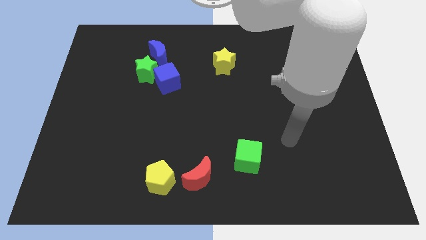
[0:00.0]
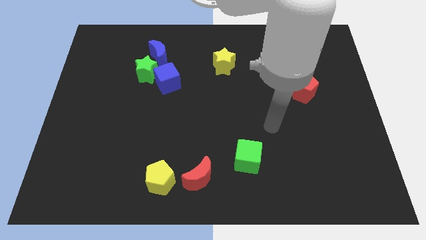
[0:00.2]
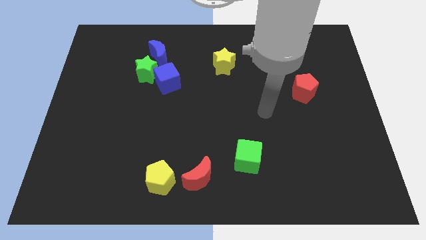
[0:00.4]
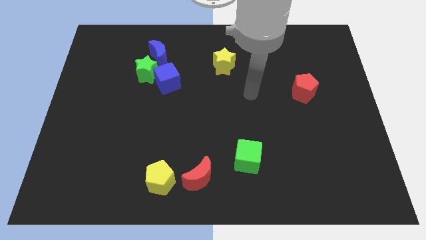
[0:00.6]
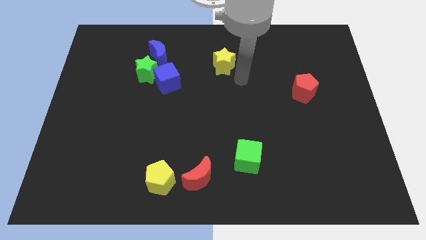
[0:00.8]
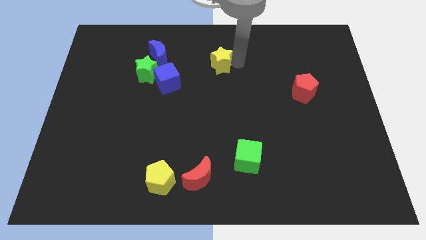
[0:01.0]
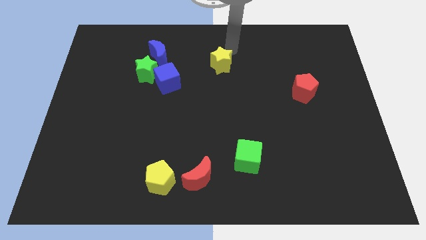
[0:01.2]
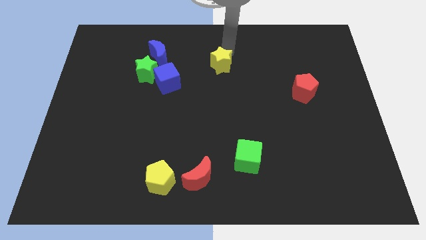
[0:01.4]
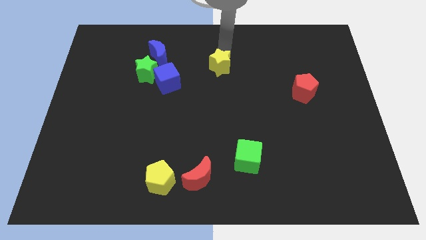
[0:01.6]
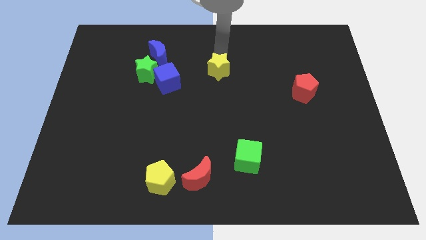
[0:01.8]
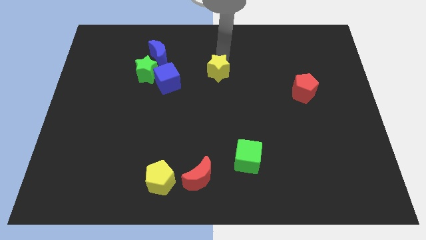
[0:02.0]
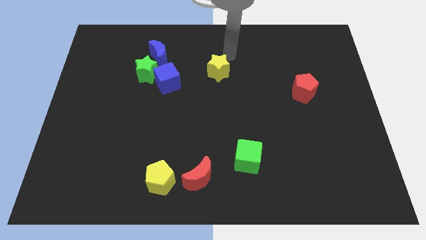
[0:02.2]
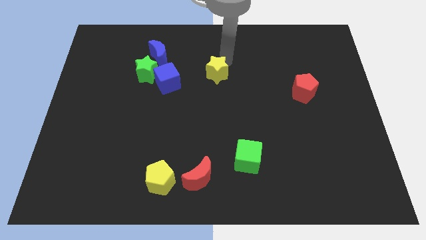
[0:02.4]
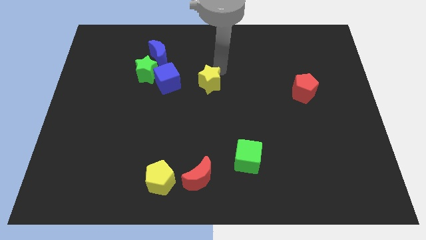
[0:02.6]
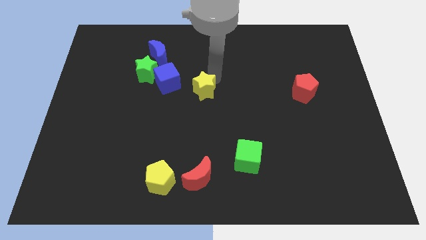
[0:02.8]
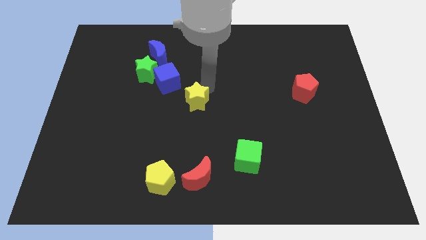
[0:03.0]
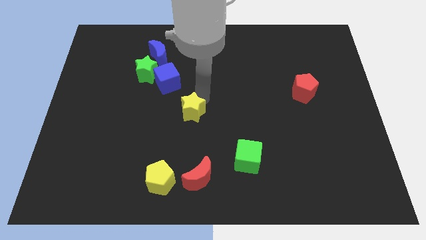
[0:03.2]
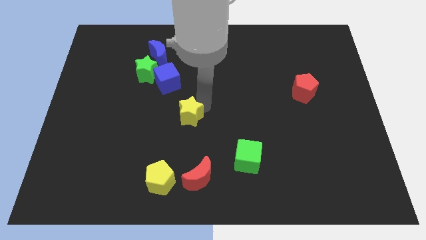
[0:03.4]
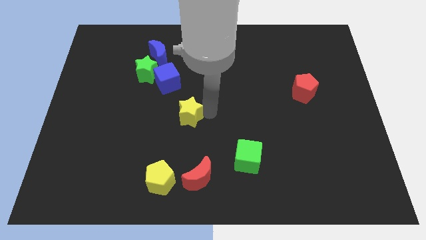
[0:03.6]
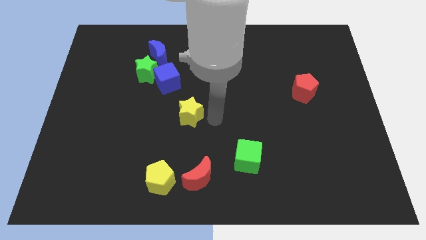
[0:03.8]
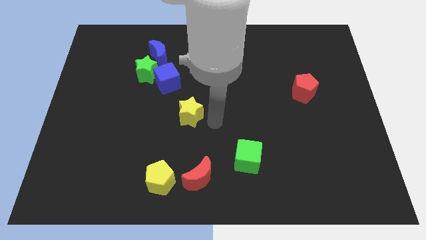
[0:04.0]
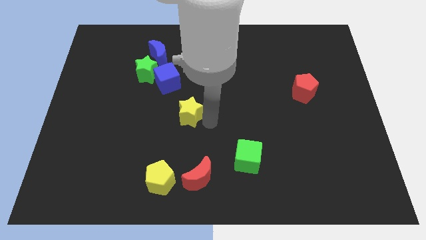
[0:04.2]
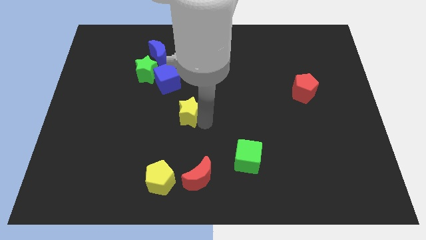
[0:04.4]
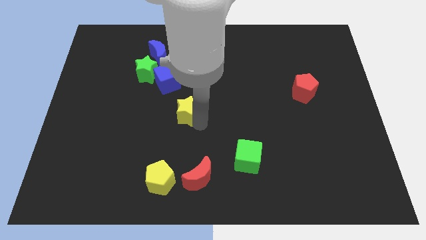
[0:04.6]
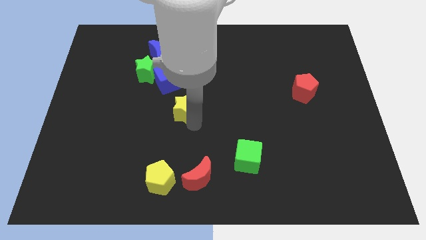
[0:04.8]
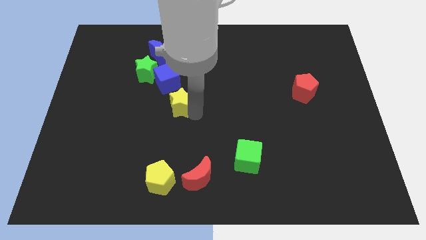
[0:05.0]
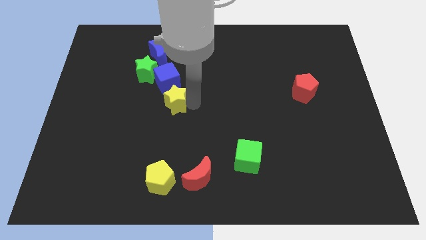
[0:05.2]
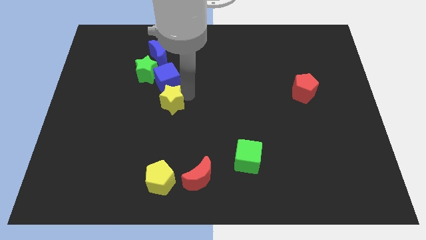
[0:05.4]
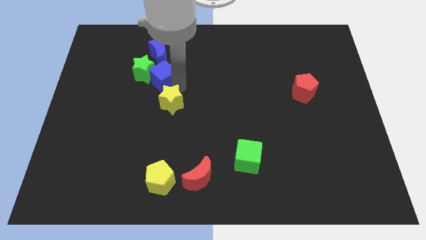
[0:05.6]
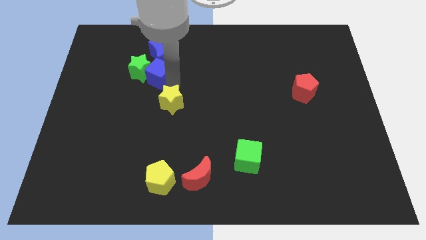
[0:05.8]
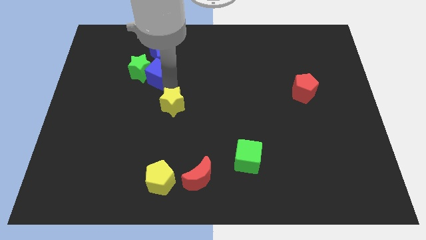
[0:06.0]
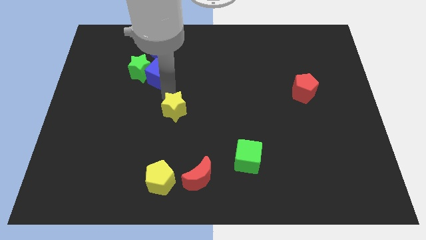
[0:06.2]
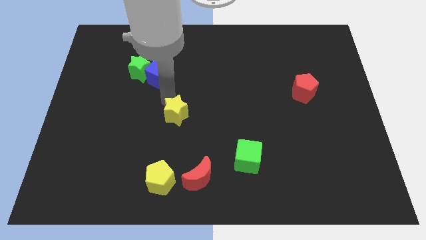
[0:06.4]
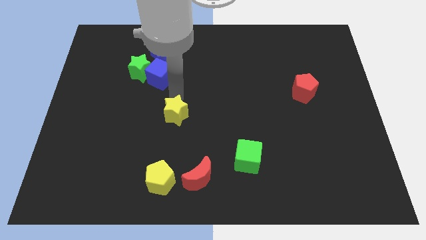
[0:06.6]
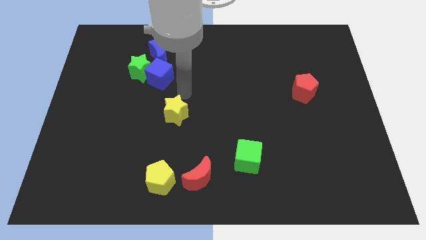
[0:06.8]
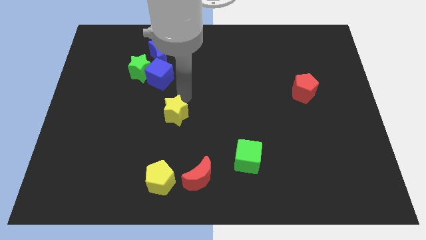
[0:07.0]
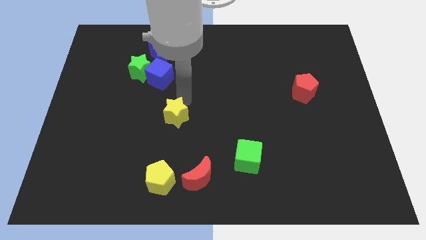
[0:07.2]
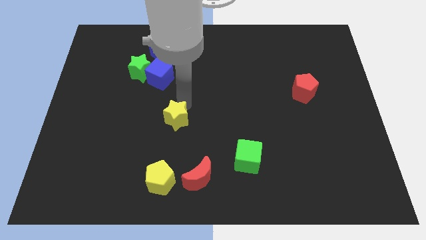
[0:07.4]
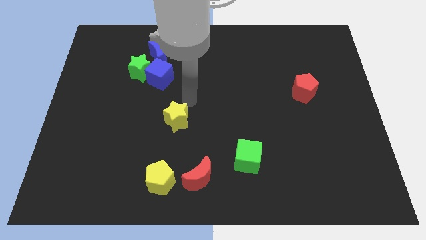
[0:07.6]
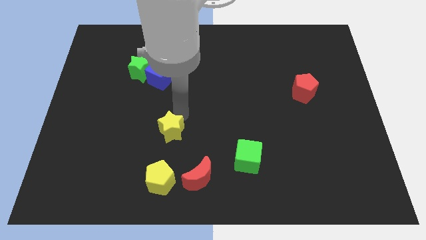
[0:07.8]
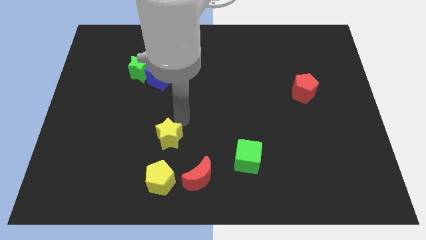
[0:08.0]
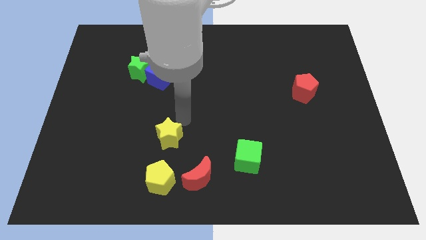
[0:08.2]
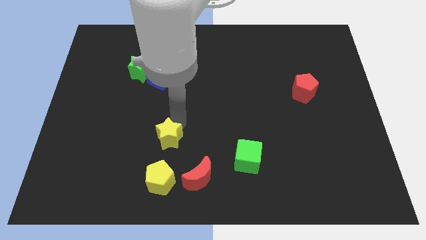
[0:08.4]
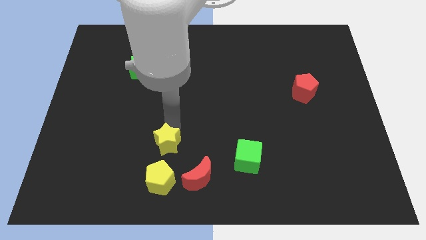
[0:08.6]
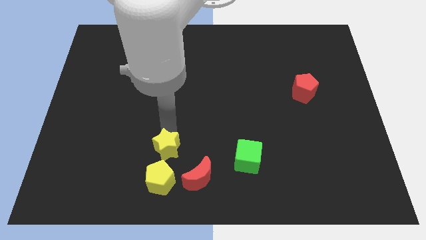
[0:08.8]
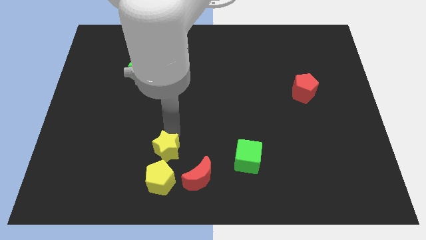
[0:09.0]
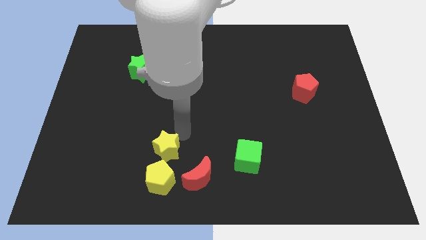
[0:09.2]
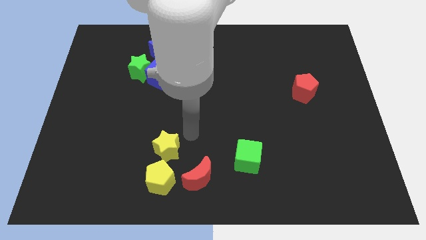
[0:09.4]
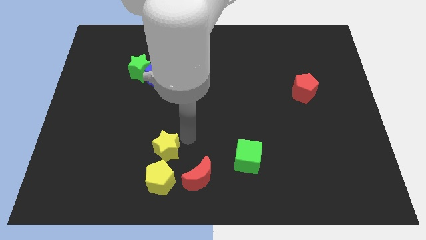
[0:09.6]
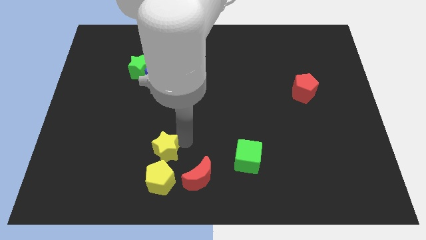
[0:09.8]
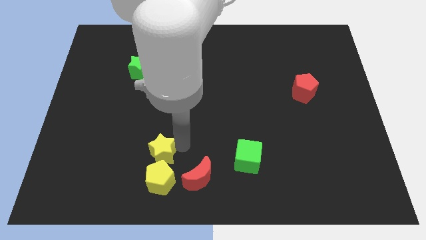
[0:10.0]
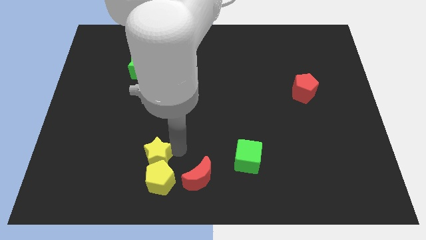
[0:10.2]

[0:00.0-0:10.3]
slide the yellow star to the left side of the red moon

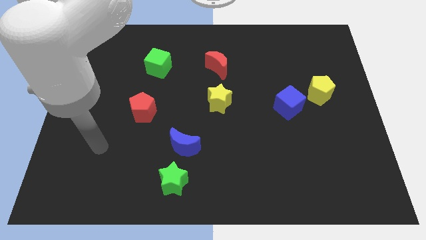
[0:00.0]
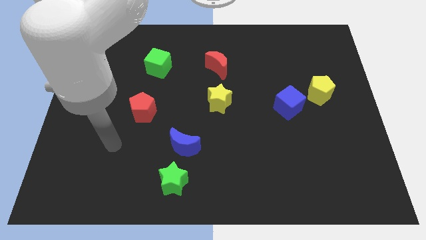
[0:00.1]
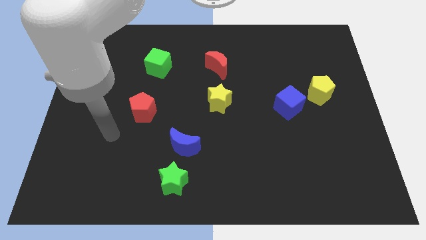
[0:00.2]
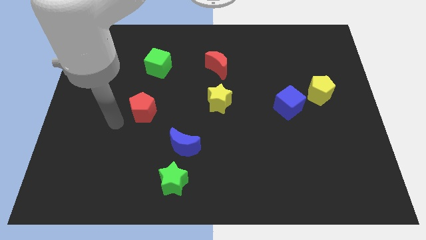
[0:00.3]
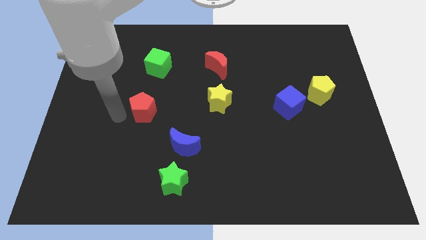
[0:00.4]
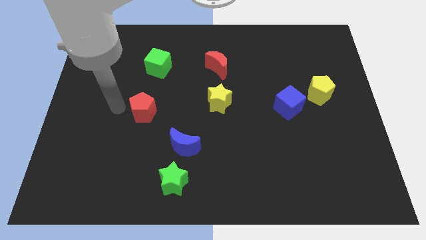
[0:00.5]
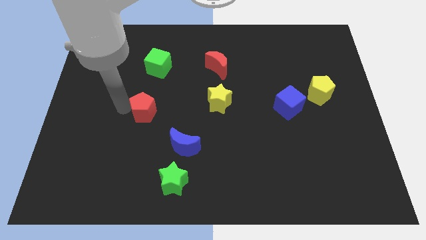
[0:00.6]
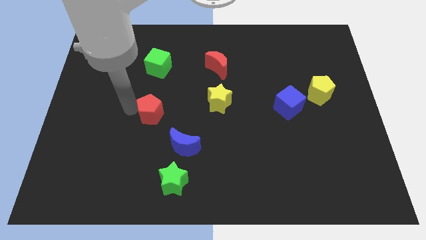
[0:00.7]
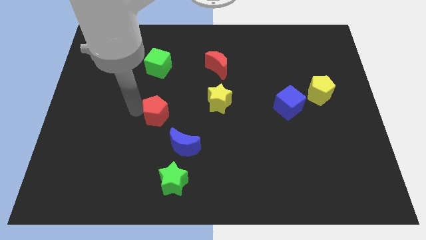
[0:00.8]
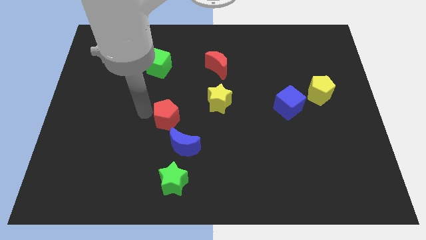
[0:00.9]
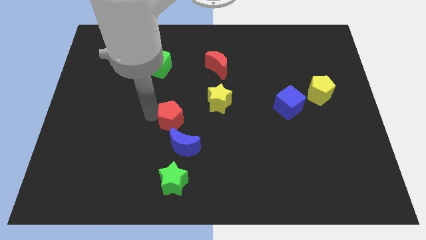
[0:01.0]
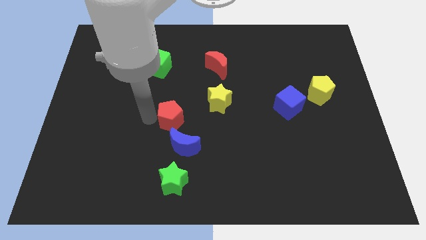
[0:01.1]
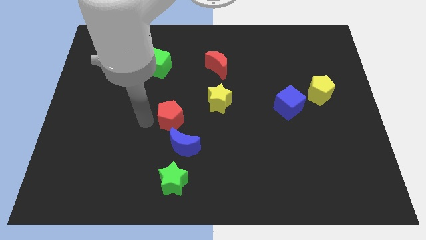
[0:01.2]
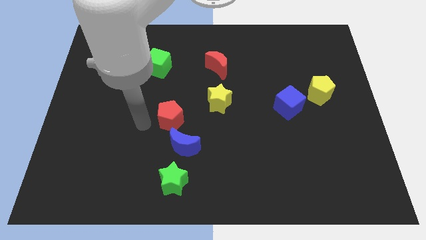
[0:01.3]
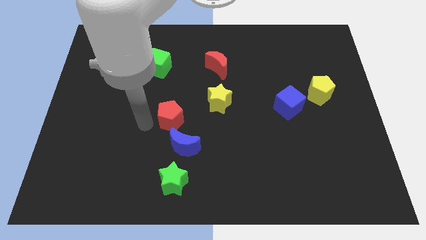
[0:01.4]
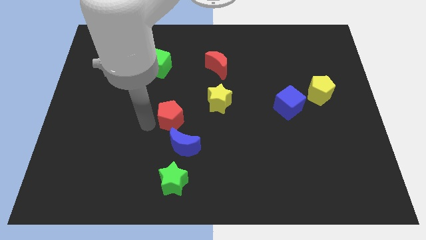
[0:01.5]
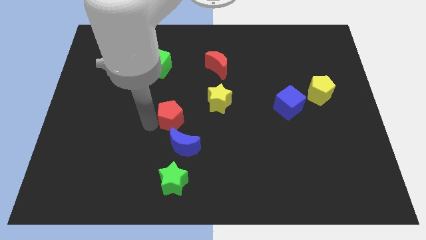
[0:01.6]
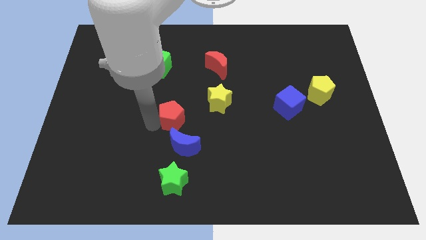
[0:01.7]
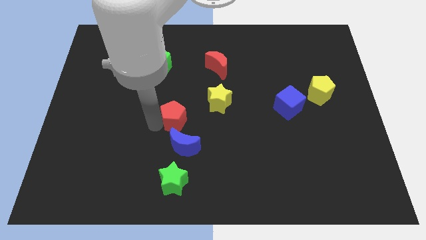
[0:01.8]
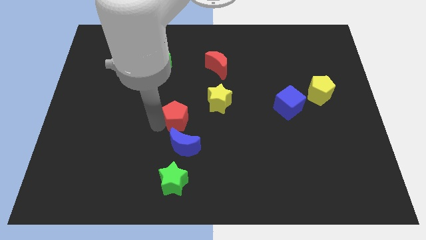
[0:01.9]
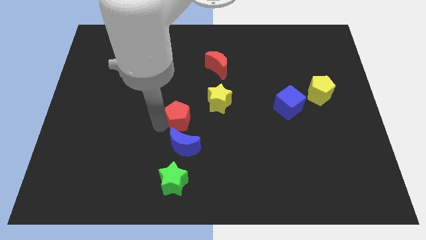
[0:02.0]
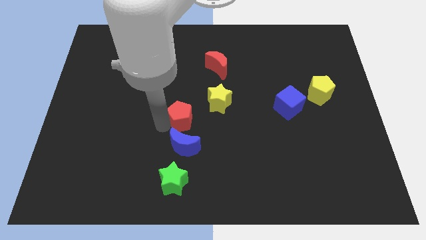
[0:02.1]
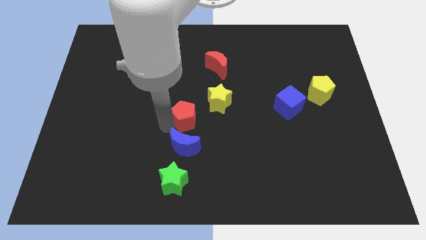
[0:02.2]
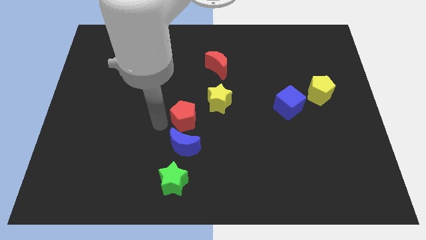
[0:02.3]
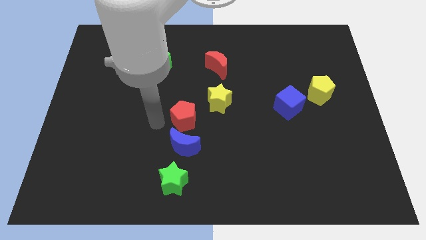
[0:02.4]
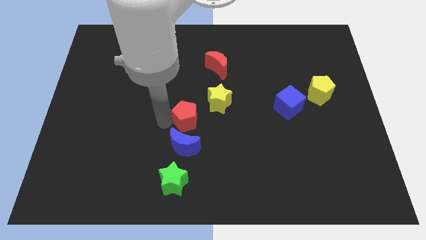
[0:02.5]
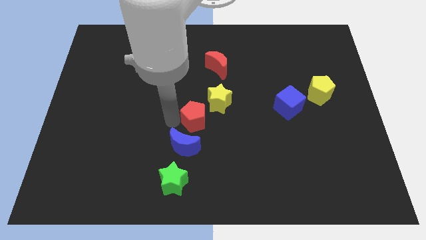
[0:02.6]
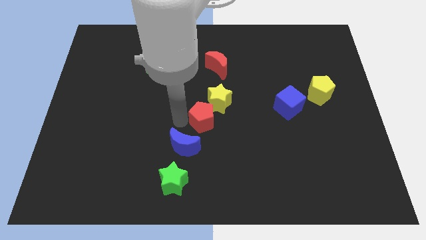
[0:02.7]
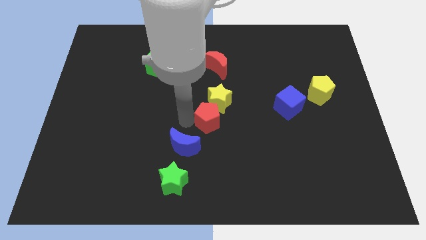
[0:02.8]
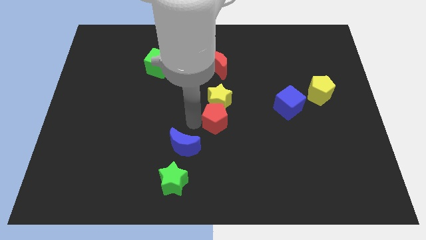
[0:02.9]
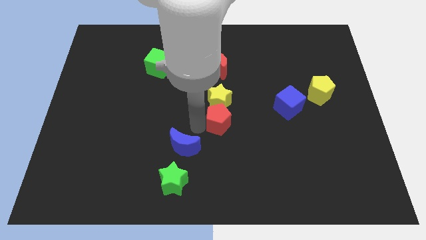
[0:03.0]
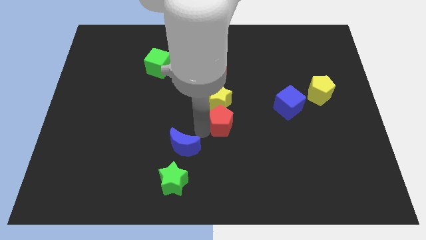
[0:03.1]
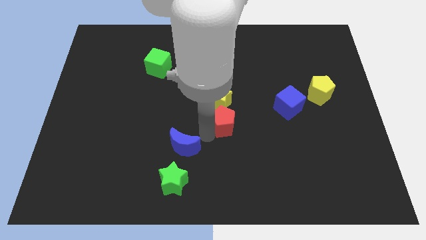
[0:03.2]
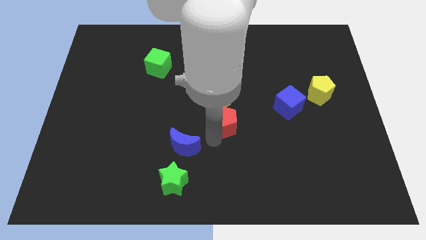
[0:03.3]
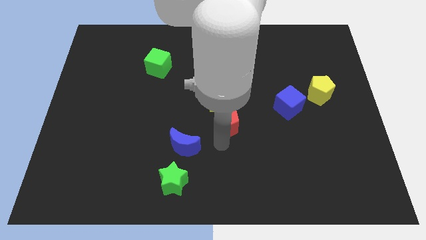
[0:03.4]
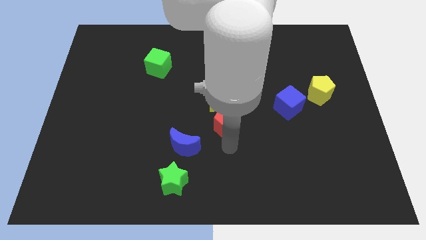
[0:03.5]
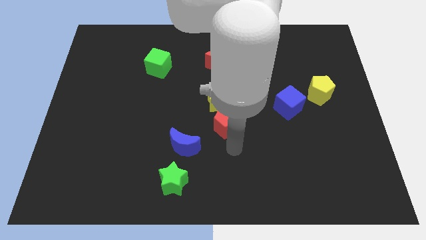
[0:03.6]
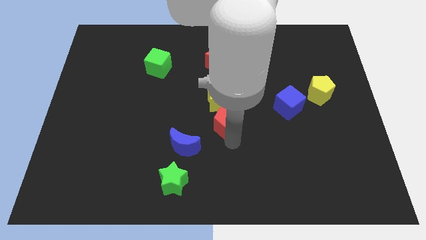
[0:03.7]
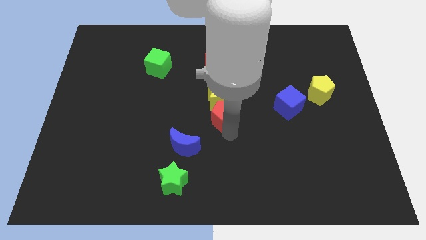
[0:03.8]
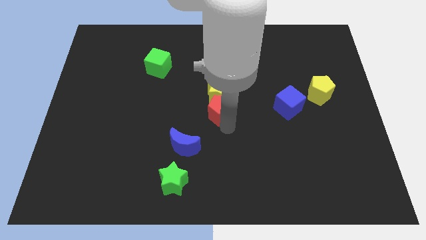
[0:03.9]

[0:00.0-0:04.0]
push the red pentagon to the bottom side of the red moon
